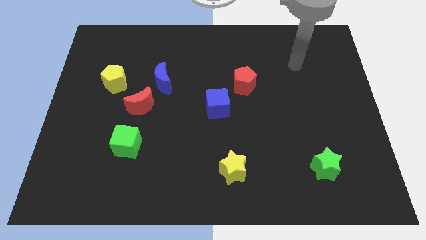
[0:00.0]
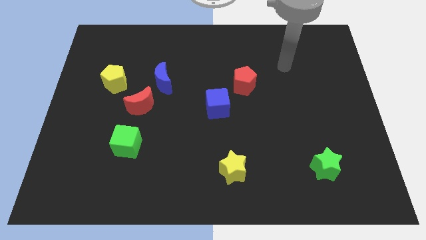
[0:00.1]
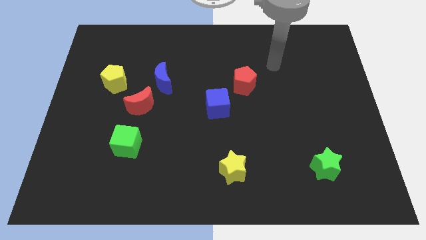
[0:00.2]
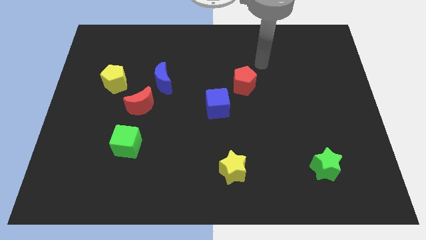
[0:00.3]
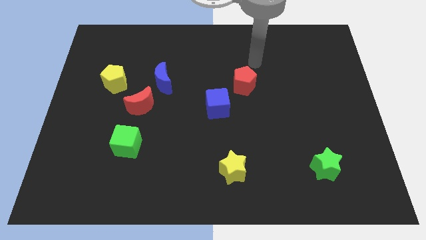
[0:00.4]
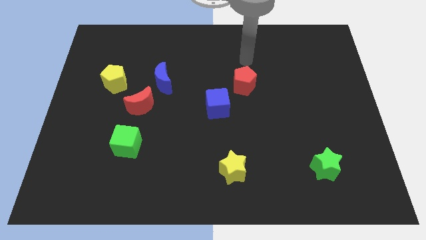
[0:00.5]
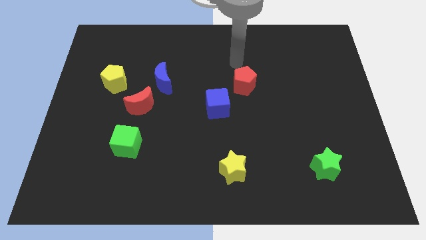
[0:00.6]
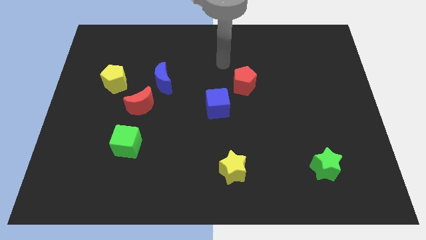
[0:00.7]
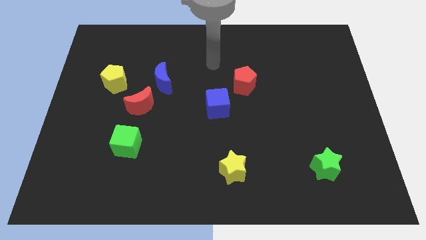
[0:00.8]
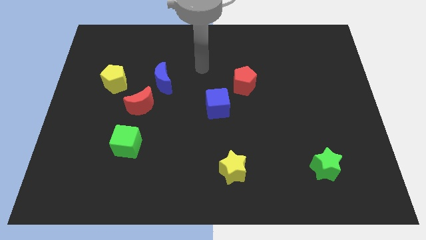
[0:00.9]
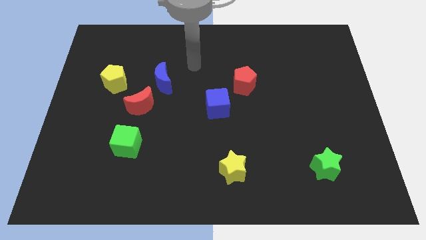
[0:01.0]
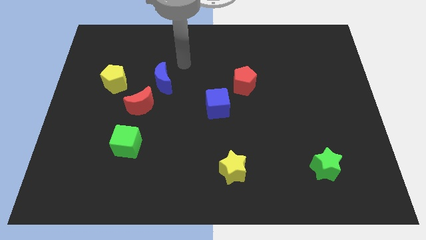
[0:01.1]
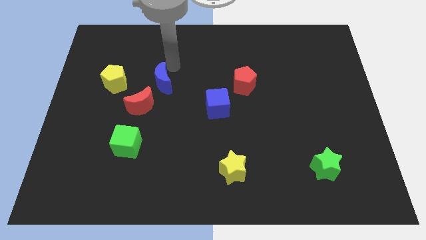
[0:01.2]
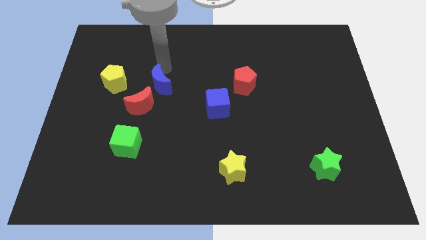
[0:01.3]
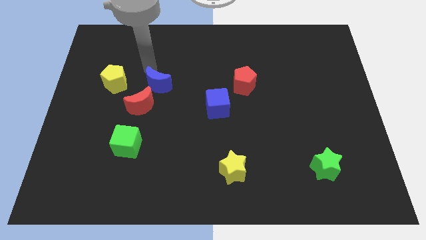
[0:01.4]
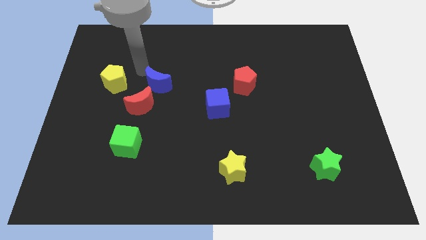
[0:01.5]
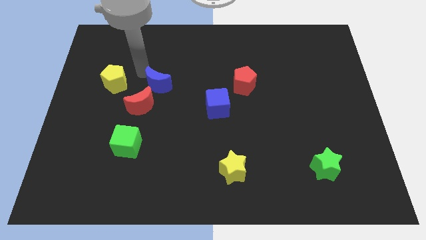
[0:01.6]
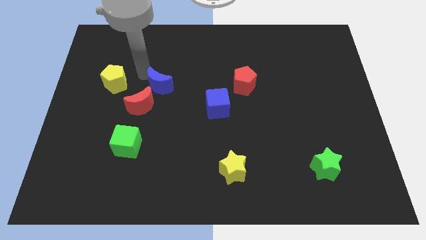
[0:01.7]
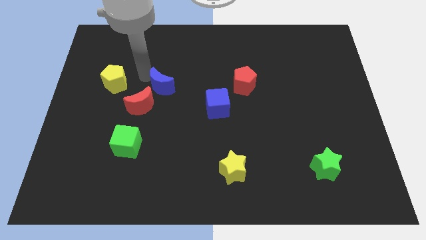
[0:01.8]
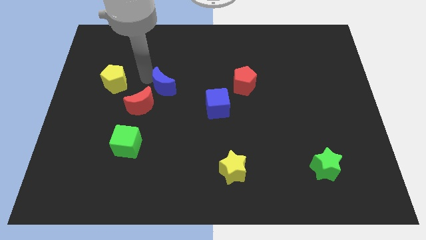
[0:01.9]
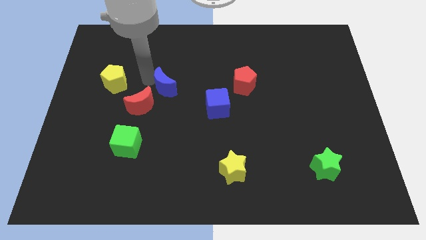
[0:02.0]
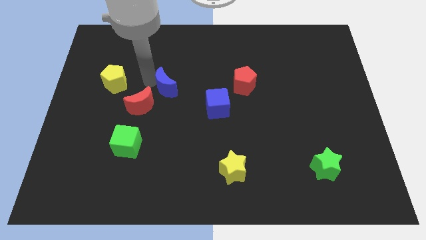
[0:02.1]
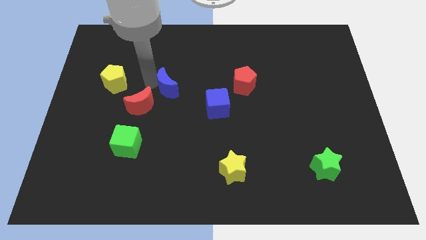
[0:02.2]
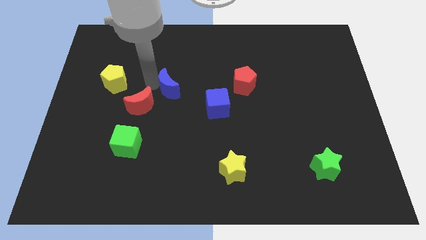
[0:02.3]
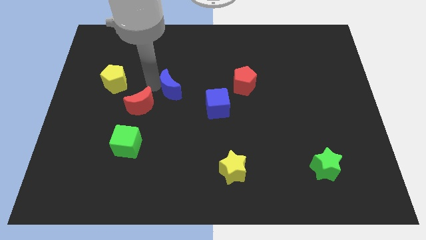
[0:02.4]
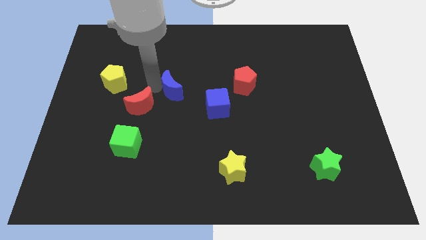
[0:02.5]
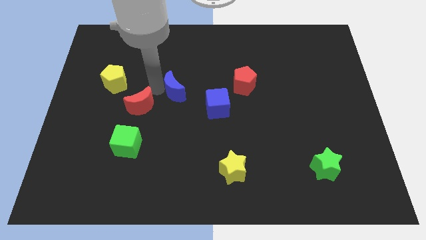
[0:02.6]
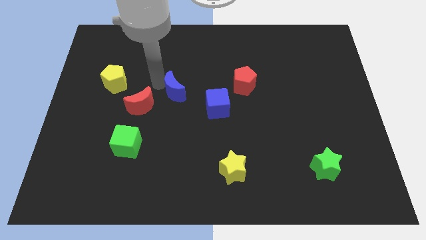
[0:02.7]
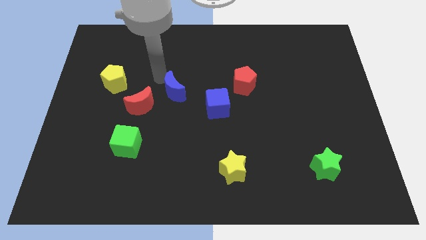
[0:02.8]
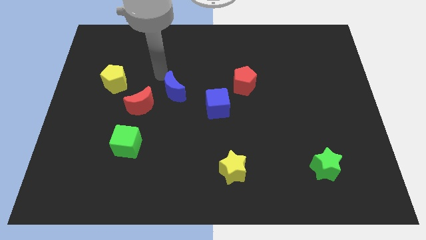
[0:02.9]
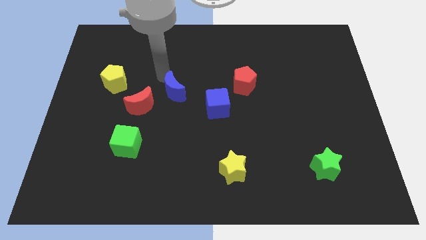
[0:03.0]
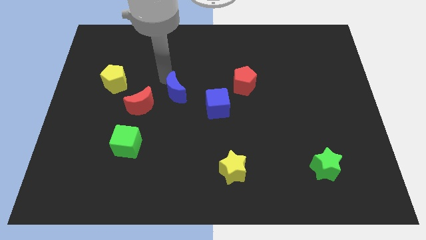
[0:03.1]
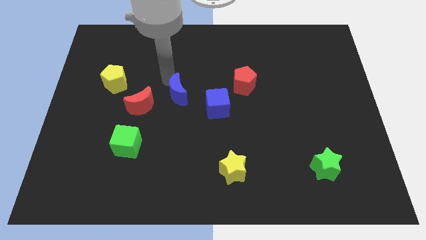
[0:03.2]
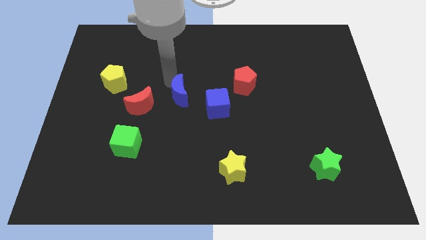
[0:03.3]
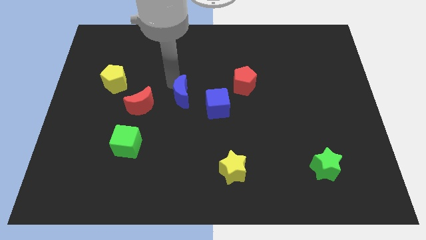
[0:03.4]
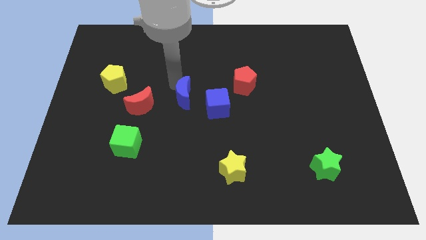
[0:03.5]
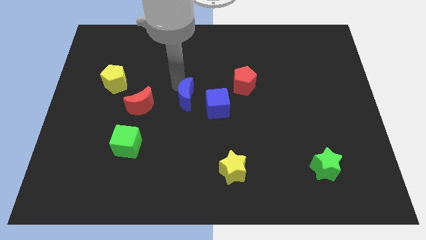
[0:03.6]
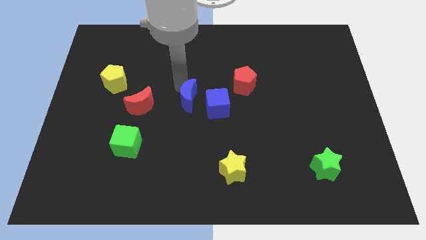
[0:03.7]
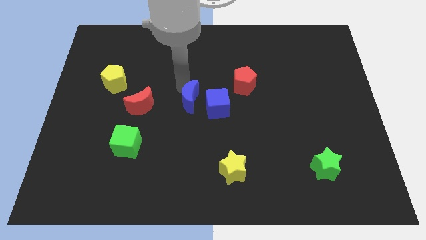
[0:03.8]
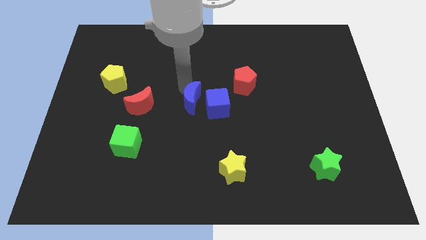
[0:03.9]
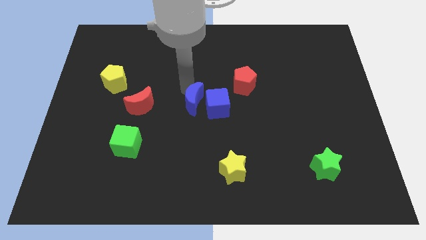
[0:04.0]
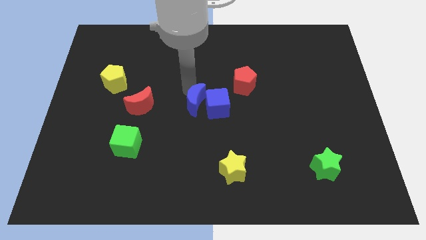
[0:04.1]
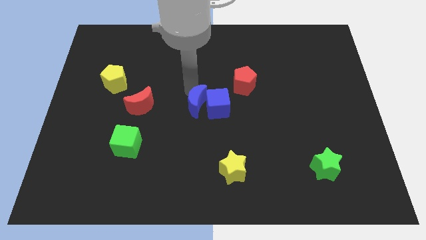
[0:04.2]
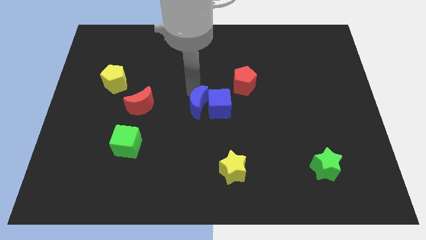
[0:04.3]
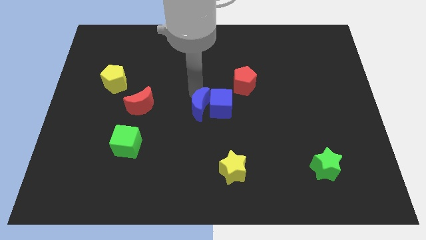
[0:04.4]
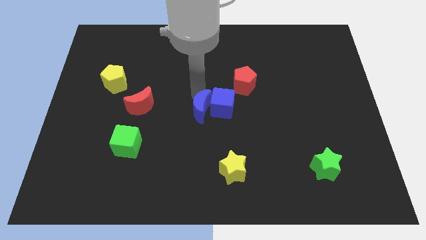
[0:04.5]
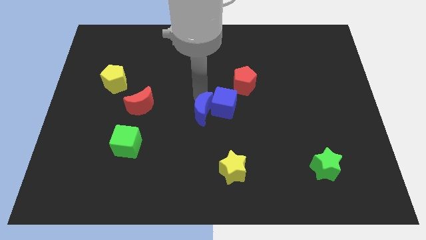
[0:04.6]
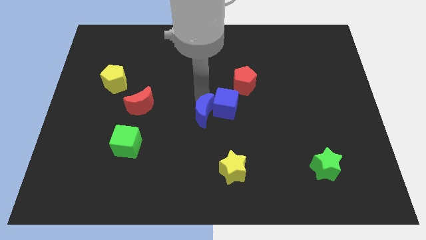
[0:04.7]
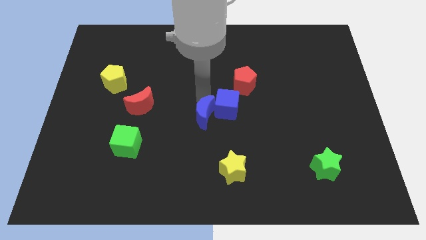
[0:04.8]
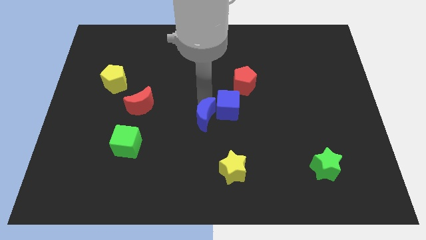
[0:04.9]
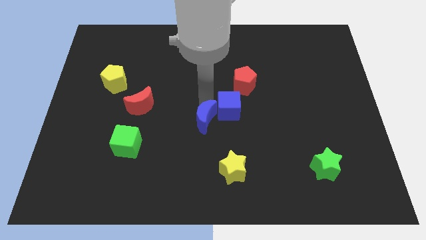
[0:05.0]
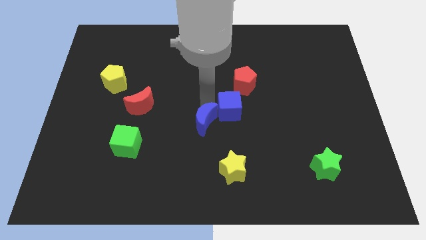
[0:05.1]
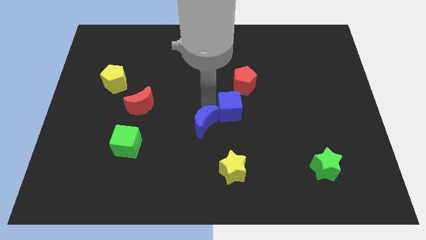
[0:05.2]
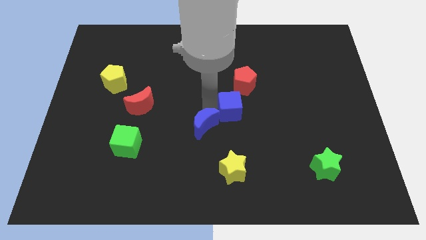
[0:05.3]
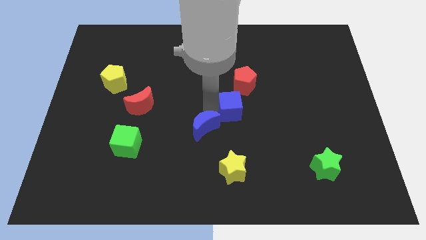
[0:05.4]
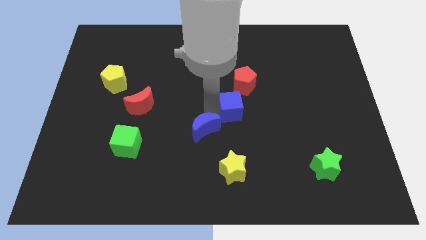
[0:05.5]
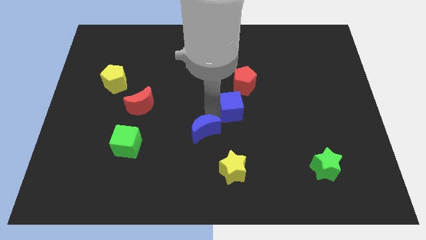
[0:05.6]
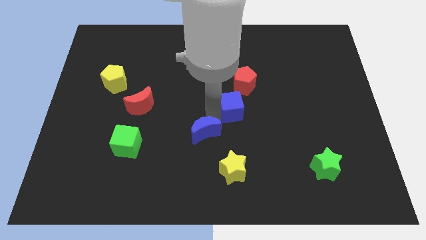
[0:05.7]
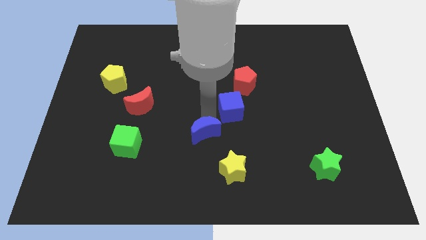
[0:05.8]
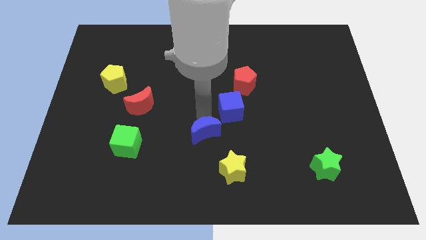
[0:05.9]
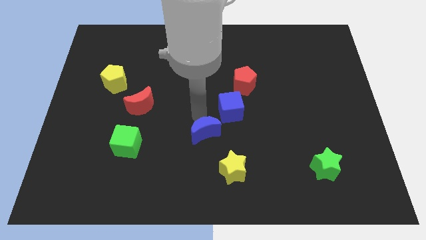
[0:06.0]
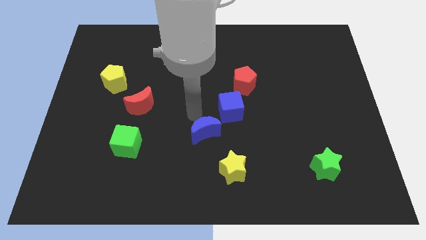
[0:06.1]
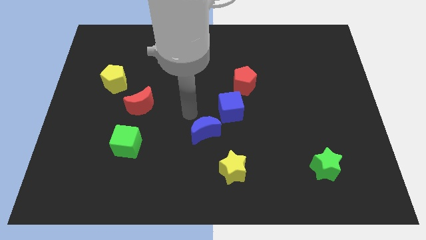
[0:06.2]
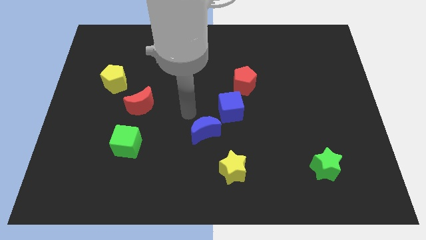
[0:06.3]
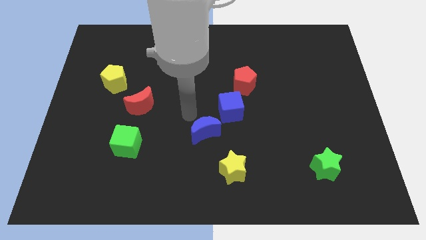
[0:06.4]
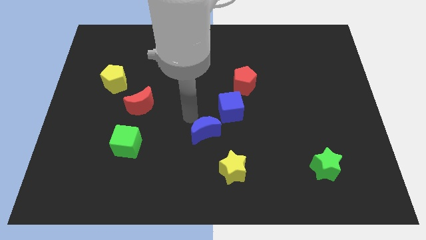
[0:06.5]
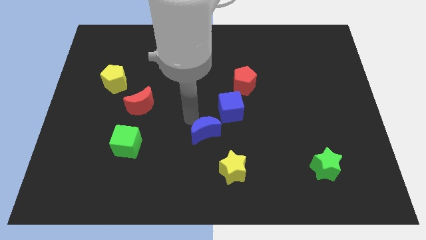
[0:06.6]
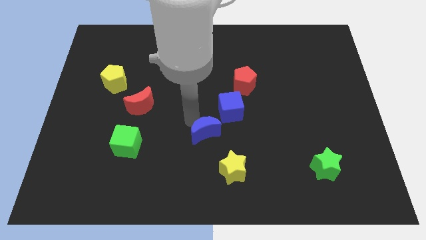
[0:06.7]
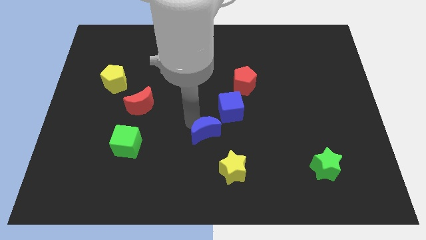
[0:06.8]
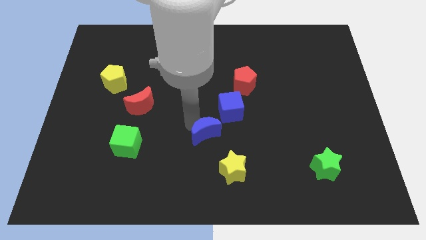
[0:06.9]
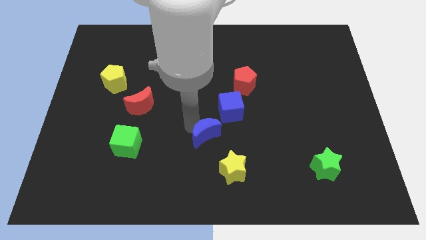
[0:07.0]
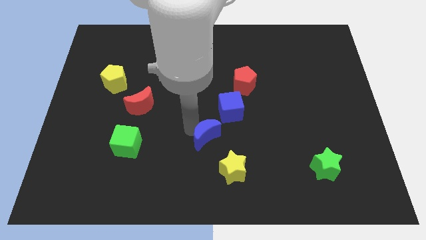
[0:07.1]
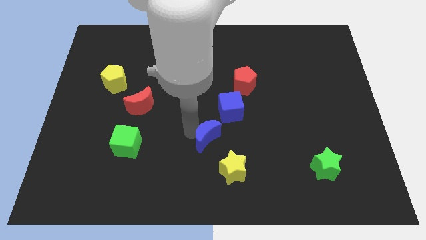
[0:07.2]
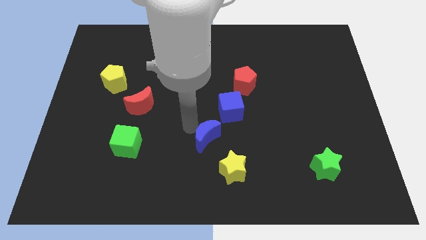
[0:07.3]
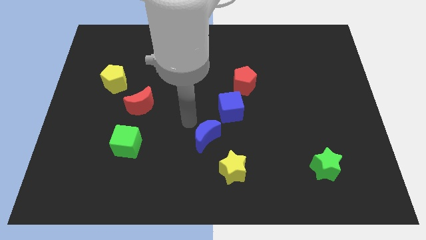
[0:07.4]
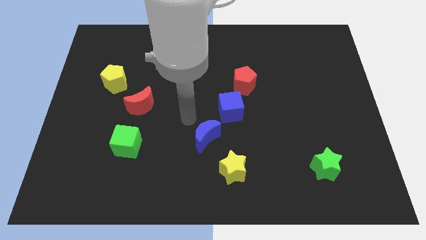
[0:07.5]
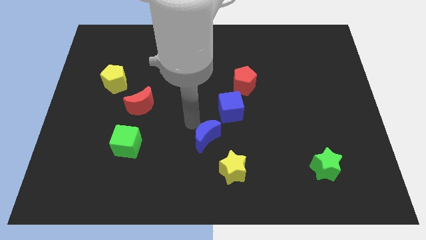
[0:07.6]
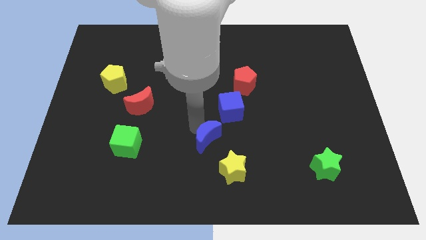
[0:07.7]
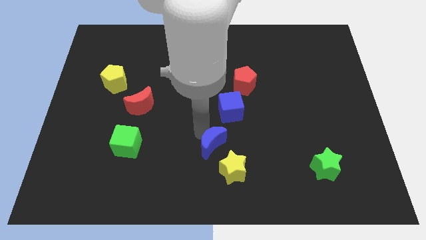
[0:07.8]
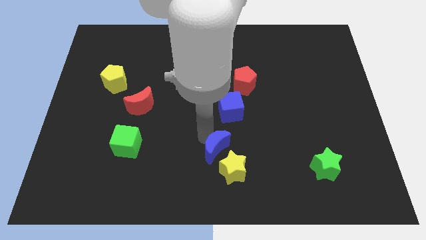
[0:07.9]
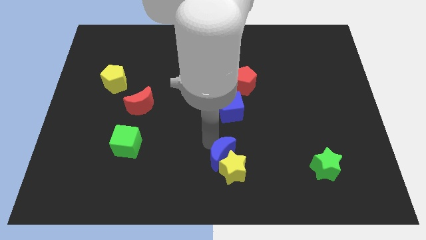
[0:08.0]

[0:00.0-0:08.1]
put the blue moon next to the yellow star
